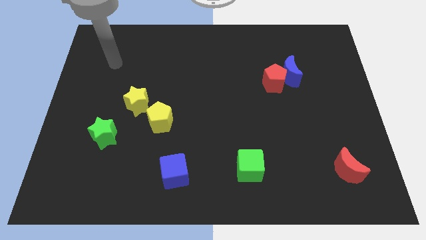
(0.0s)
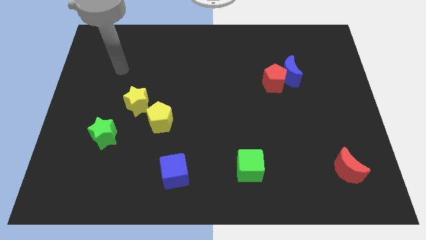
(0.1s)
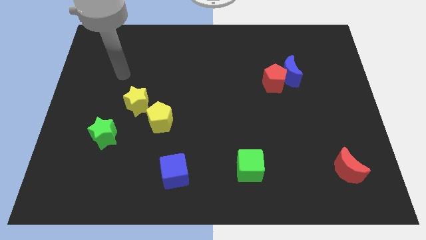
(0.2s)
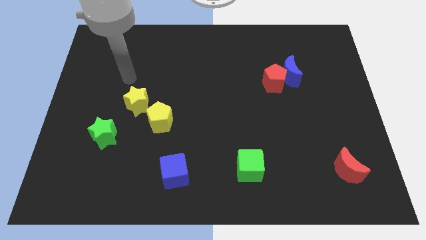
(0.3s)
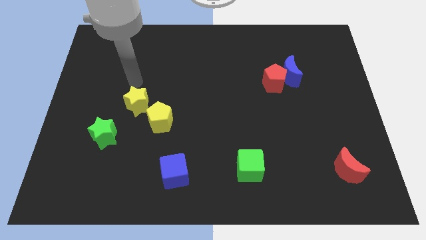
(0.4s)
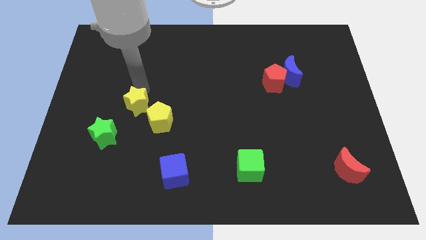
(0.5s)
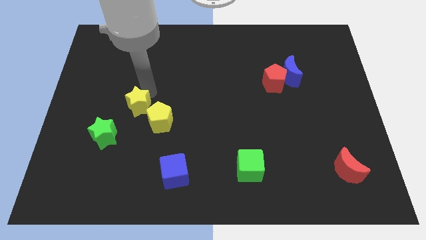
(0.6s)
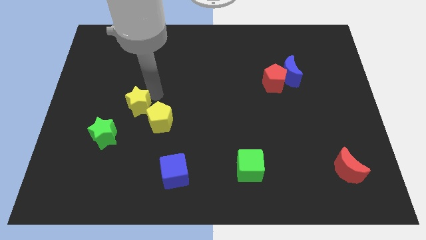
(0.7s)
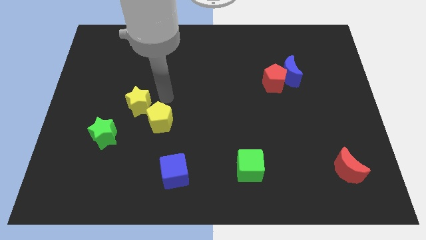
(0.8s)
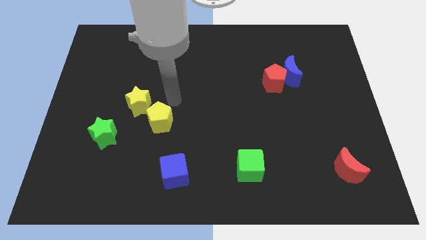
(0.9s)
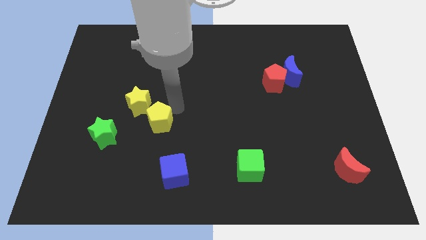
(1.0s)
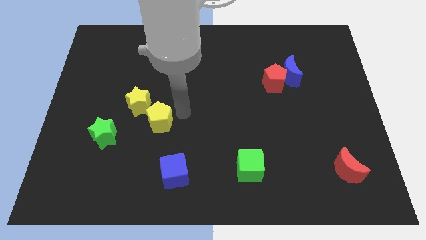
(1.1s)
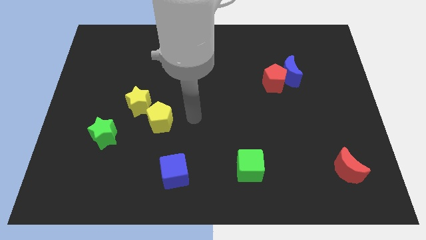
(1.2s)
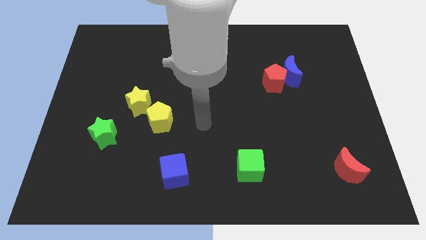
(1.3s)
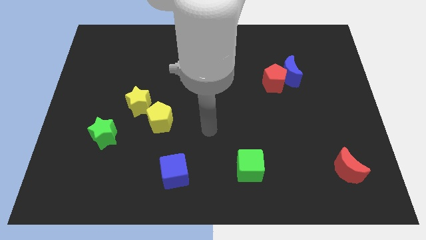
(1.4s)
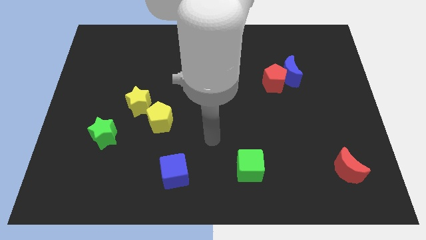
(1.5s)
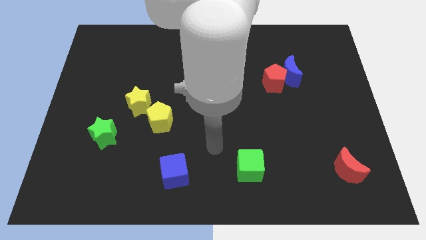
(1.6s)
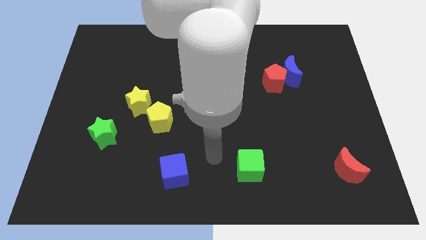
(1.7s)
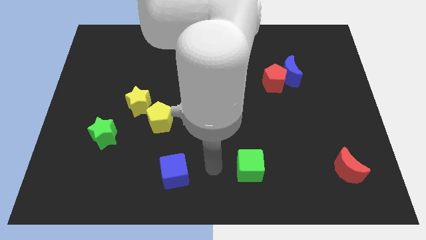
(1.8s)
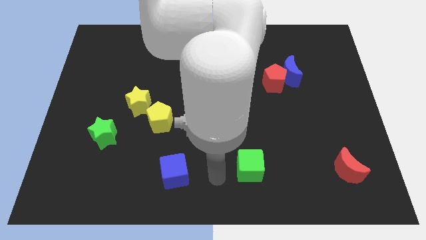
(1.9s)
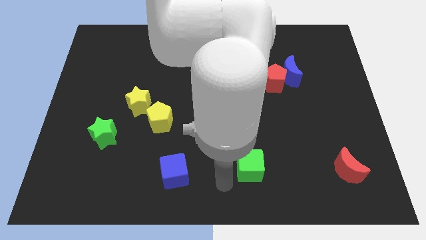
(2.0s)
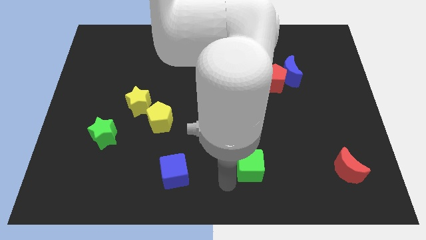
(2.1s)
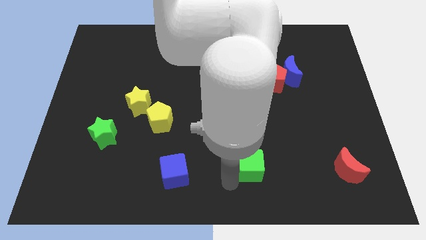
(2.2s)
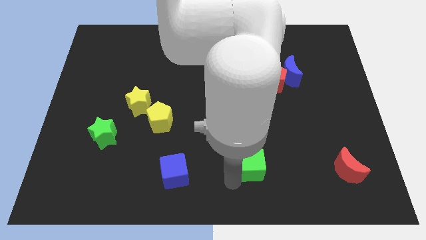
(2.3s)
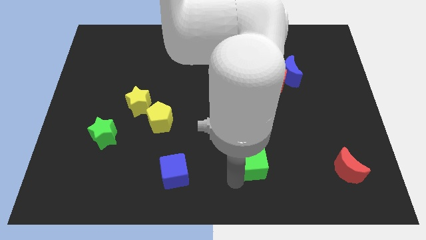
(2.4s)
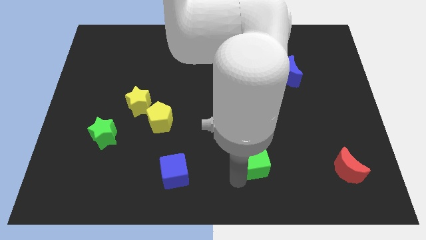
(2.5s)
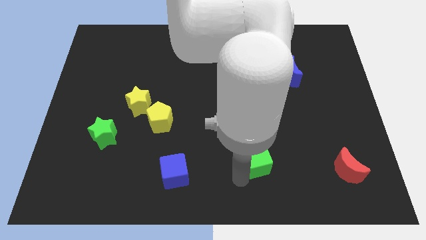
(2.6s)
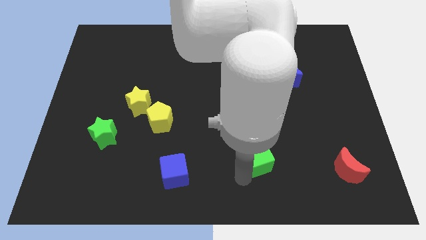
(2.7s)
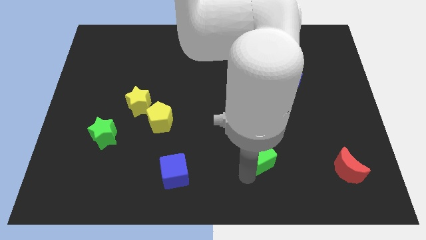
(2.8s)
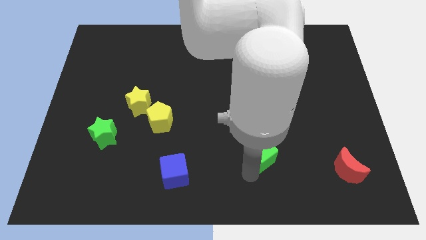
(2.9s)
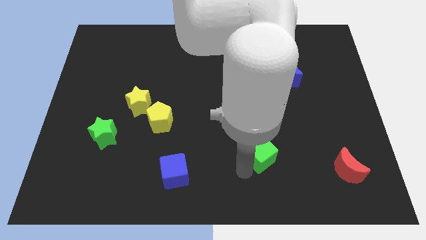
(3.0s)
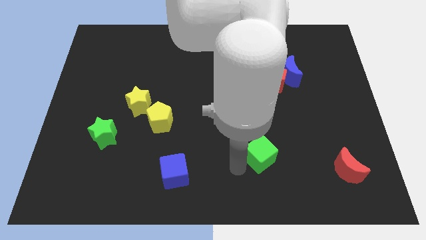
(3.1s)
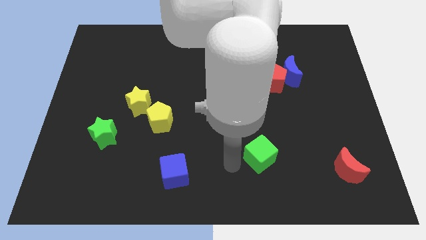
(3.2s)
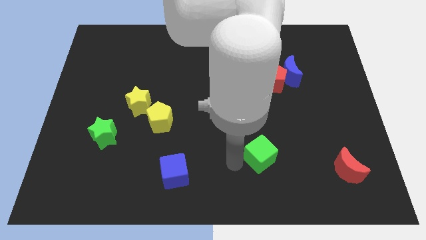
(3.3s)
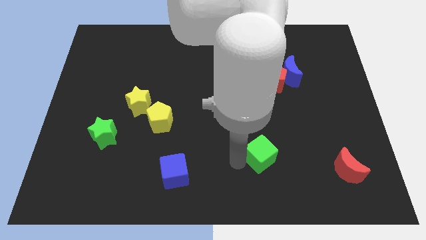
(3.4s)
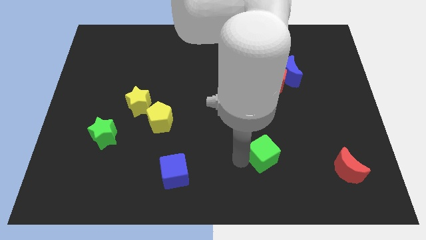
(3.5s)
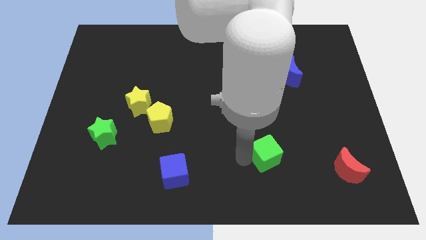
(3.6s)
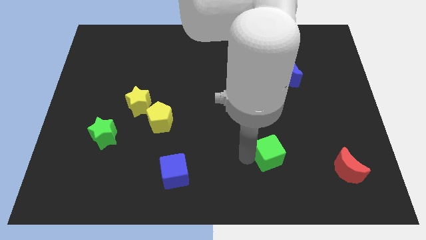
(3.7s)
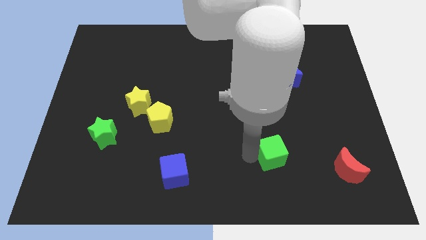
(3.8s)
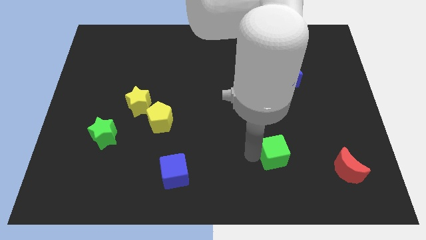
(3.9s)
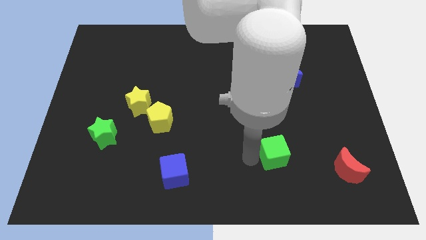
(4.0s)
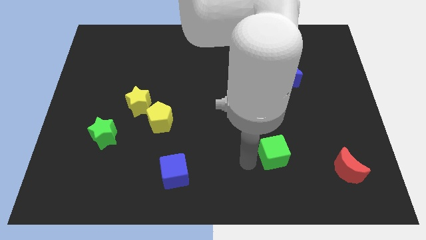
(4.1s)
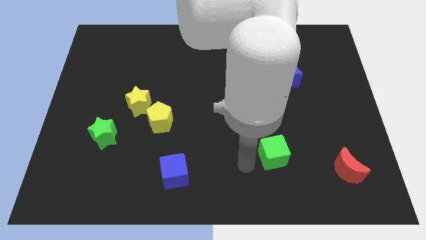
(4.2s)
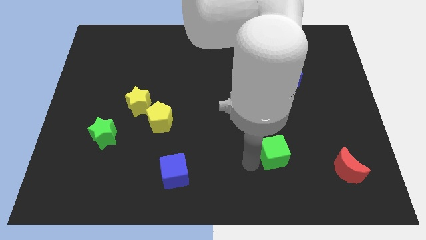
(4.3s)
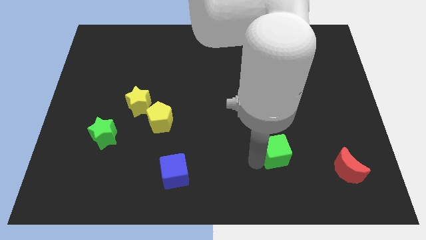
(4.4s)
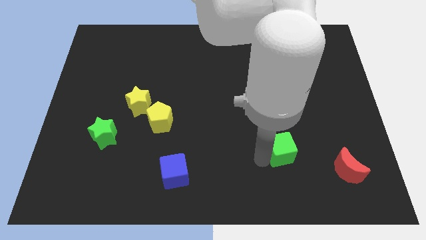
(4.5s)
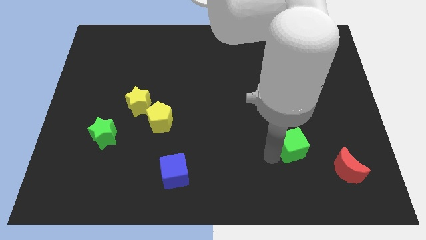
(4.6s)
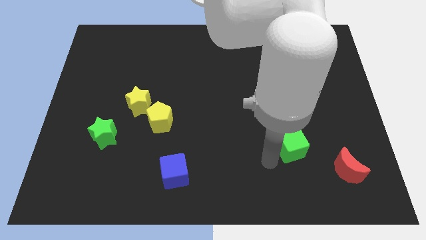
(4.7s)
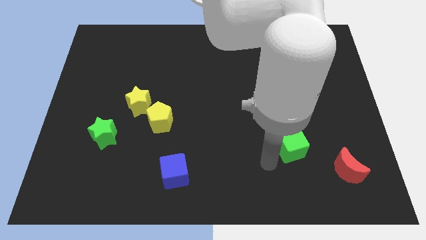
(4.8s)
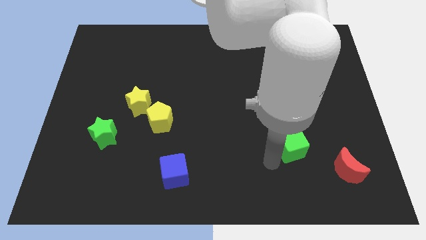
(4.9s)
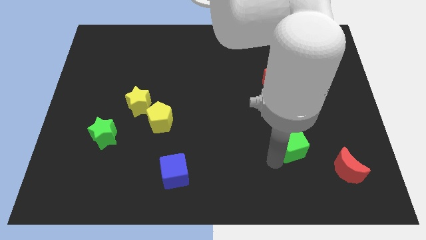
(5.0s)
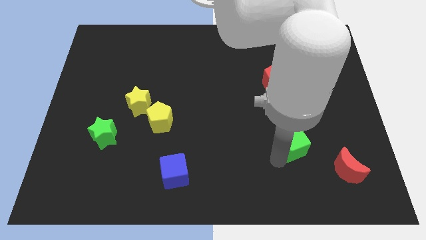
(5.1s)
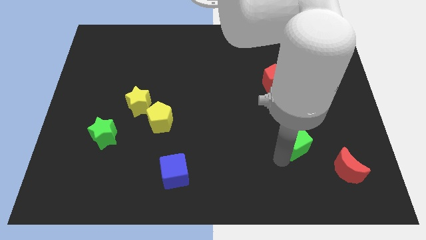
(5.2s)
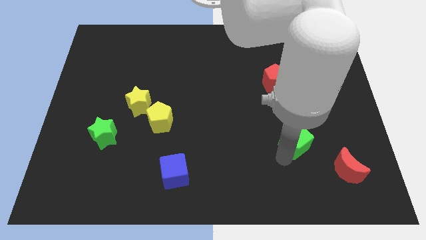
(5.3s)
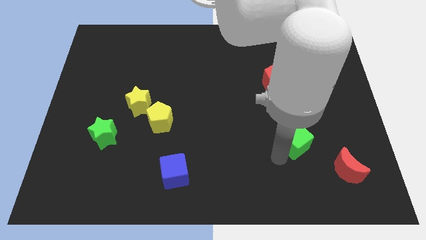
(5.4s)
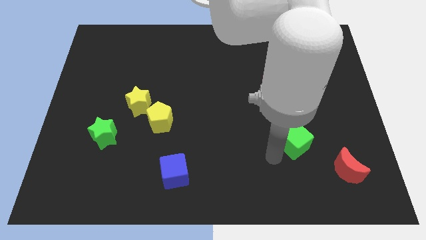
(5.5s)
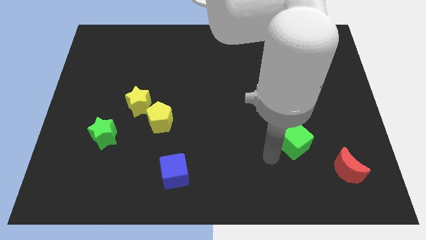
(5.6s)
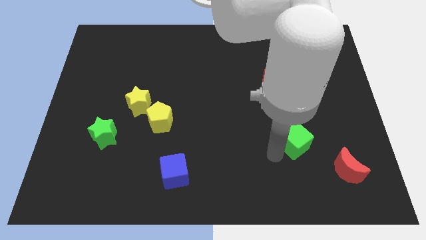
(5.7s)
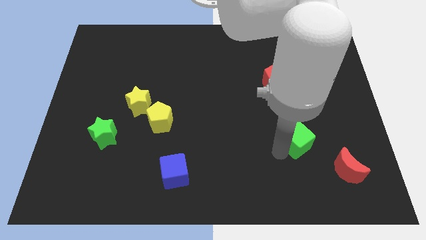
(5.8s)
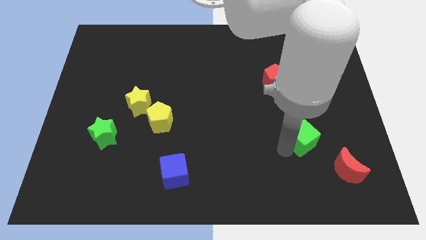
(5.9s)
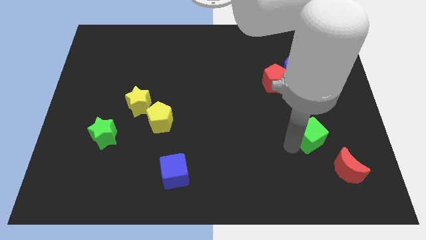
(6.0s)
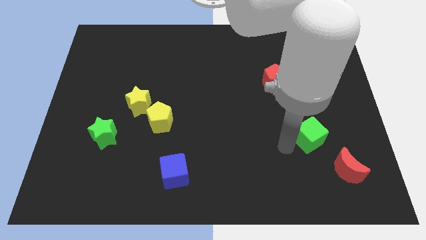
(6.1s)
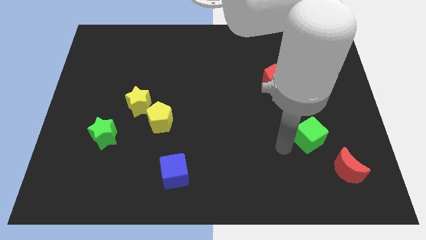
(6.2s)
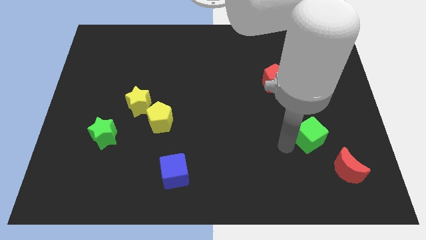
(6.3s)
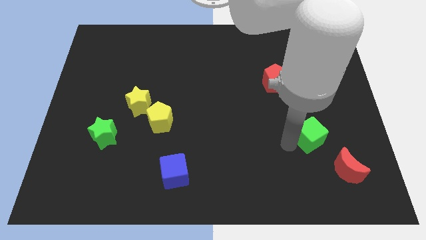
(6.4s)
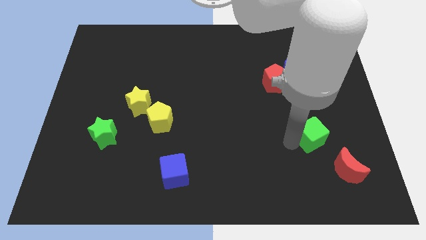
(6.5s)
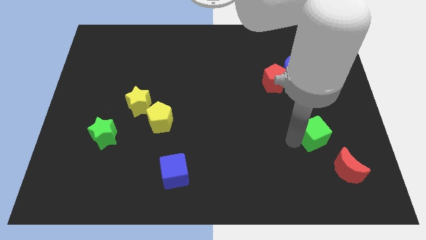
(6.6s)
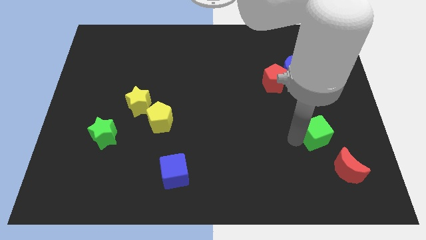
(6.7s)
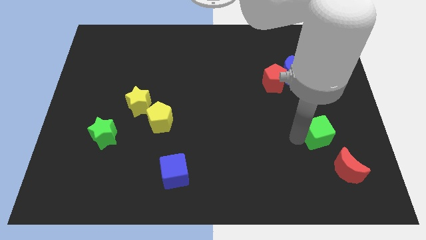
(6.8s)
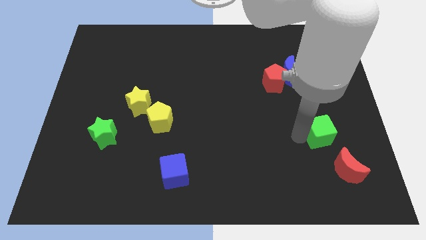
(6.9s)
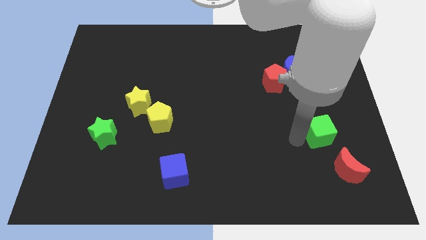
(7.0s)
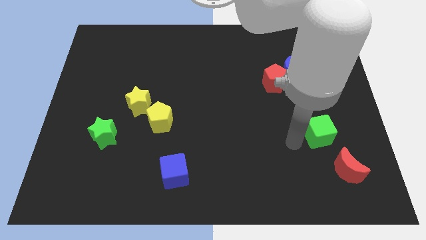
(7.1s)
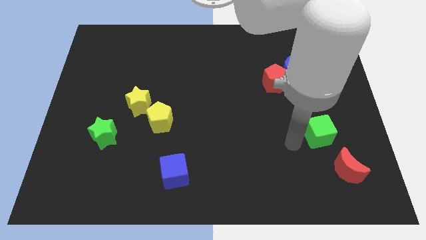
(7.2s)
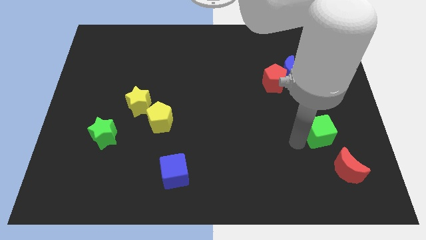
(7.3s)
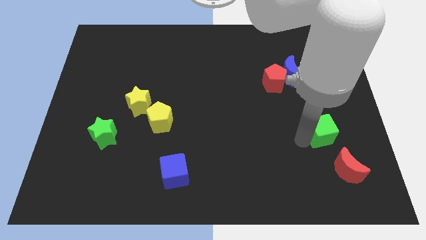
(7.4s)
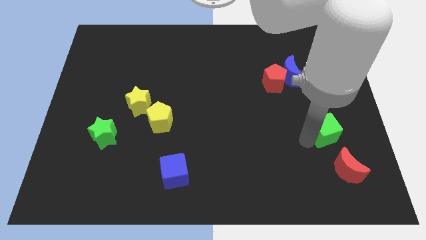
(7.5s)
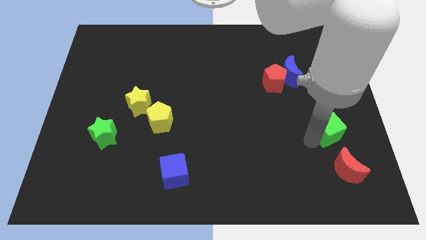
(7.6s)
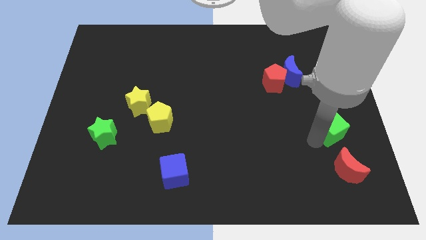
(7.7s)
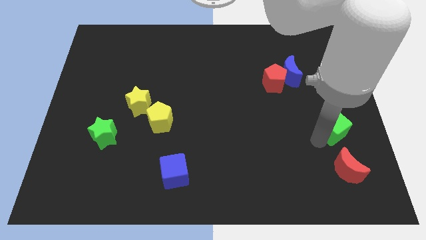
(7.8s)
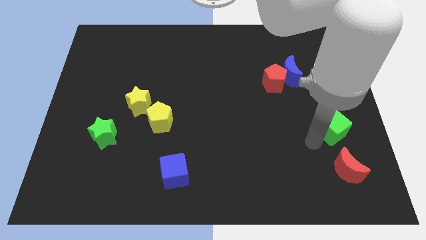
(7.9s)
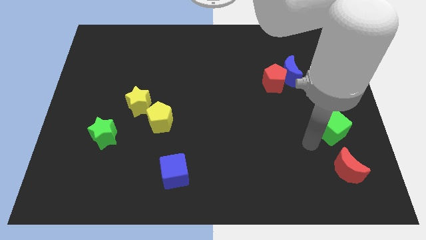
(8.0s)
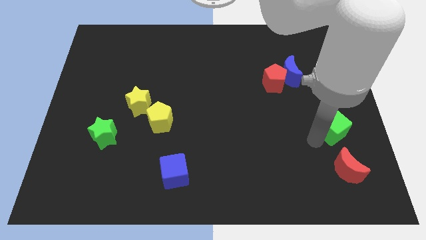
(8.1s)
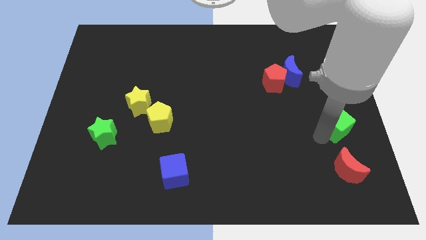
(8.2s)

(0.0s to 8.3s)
push the green cube to the right side
